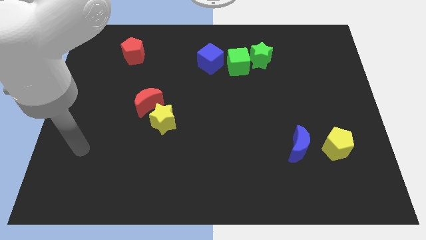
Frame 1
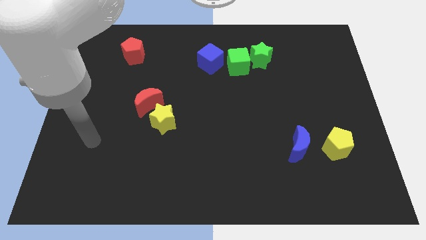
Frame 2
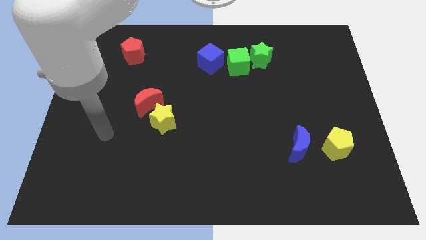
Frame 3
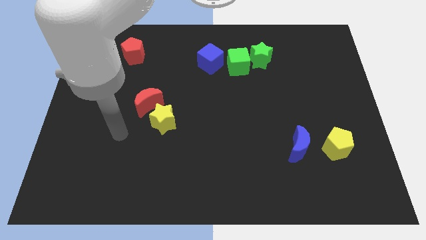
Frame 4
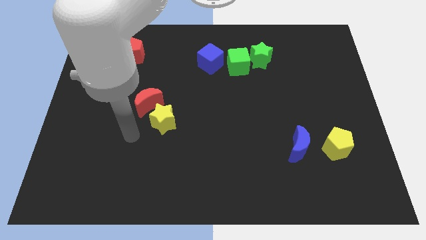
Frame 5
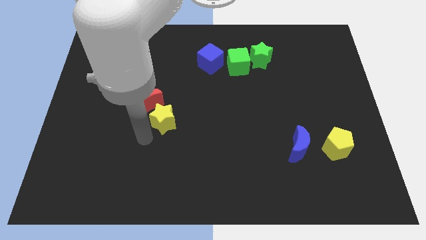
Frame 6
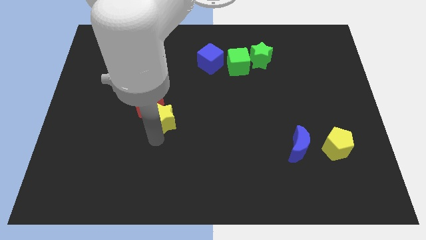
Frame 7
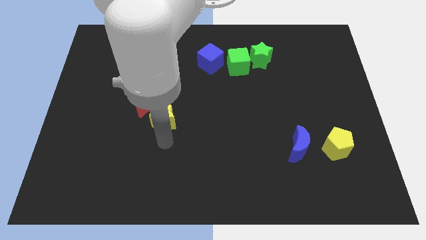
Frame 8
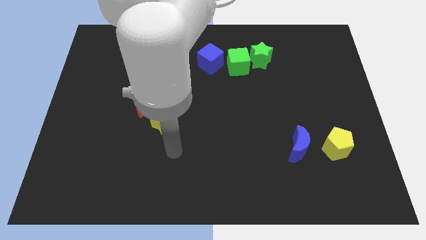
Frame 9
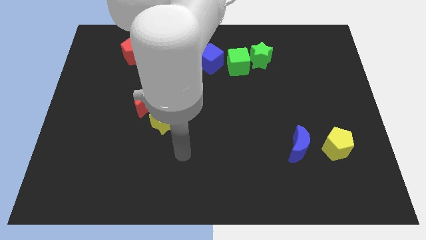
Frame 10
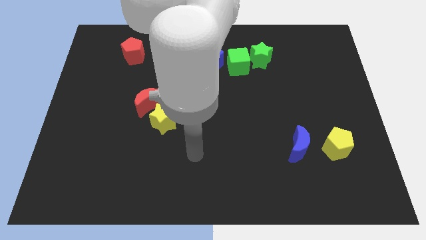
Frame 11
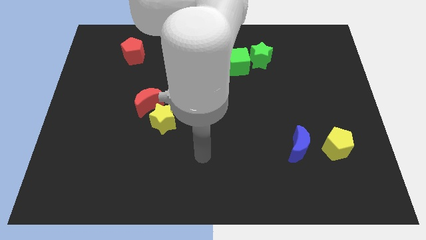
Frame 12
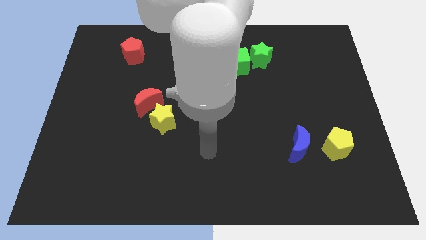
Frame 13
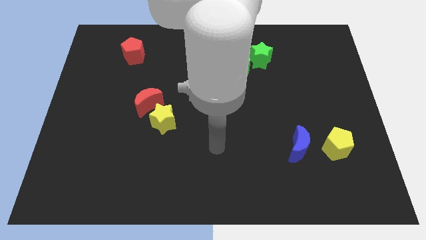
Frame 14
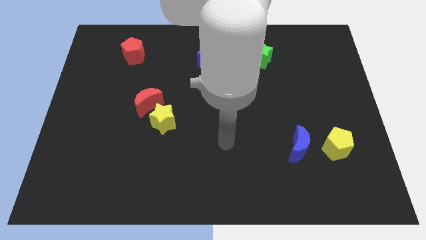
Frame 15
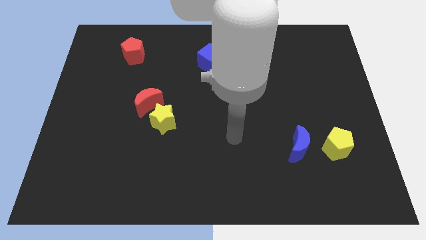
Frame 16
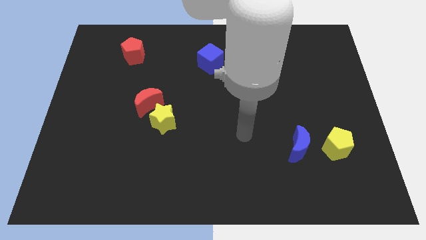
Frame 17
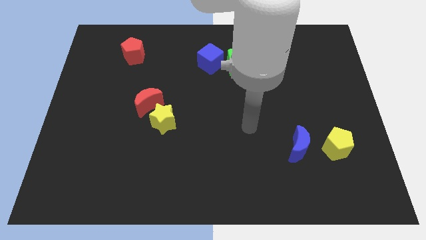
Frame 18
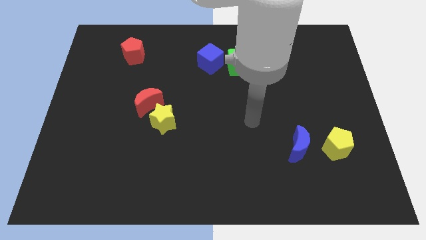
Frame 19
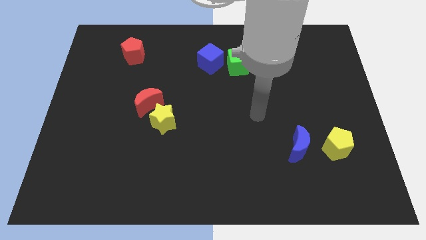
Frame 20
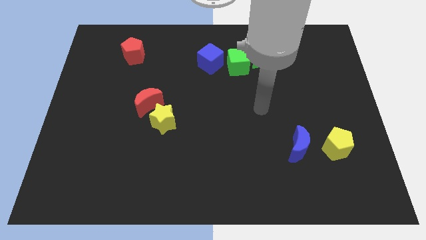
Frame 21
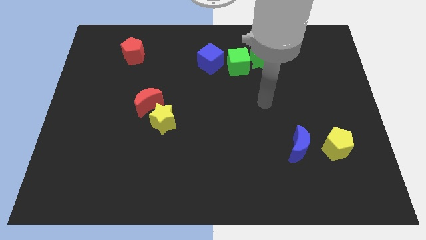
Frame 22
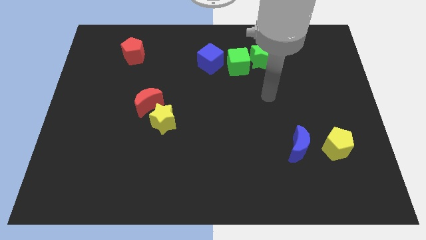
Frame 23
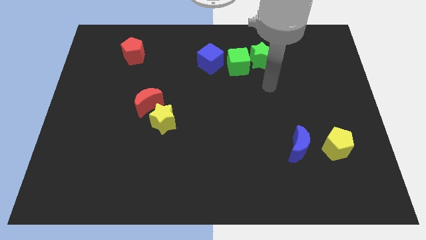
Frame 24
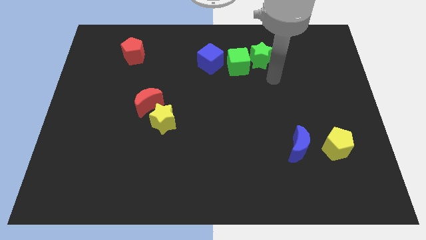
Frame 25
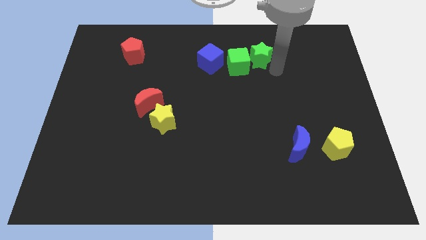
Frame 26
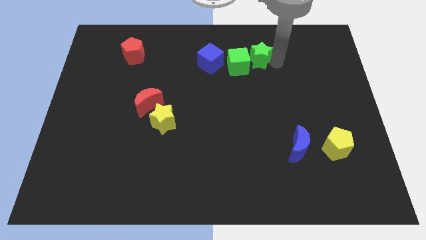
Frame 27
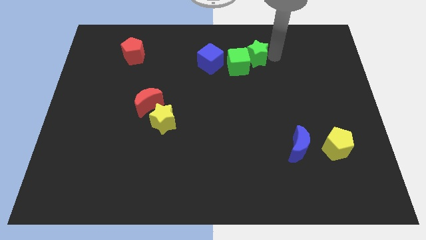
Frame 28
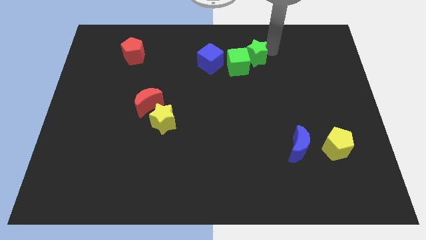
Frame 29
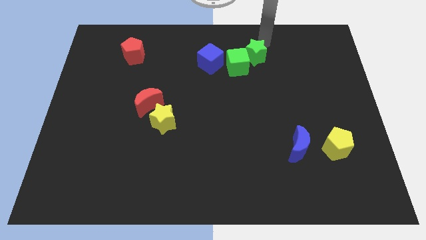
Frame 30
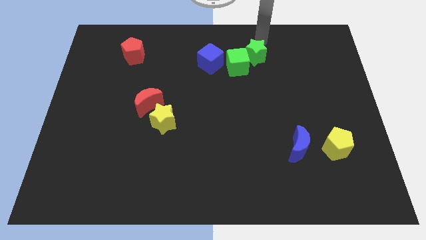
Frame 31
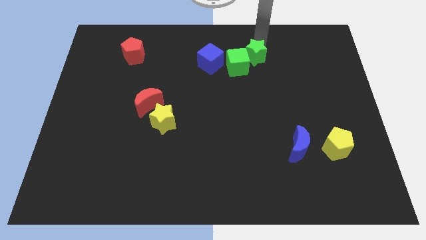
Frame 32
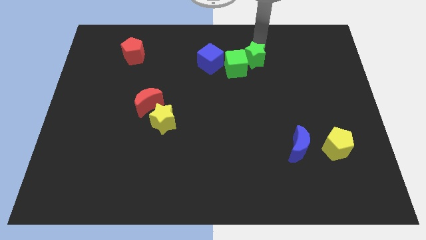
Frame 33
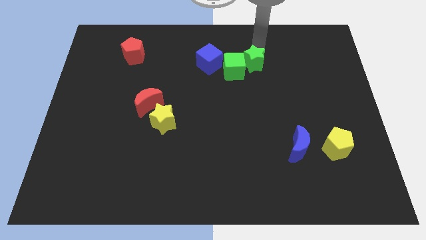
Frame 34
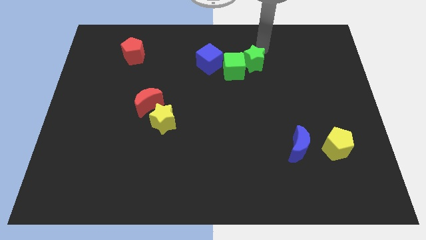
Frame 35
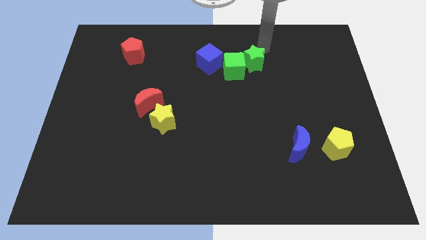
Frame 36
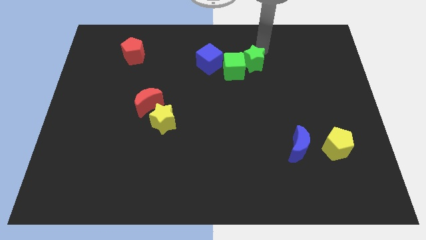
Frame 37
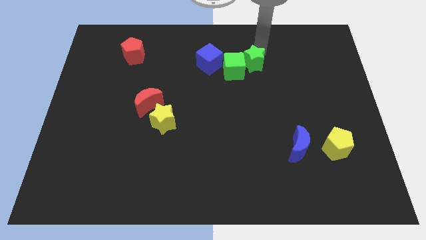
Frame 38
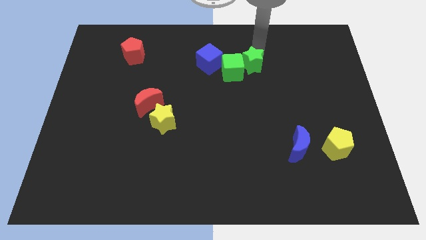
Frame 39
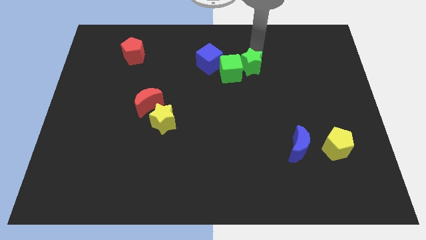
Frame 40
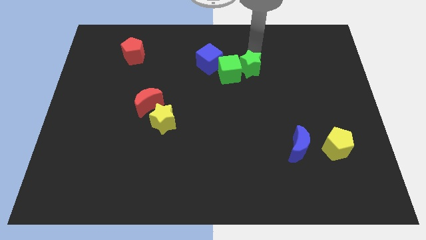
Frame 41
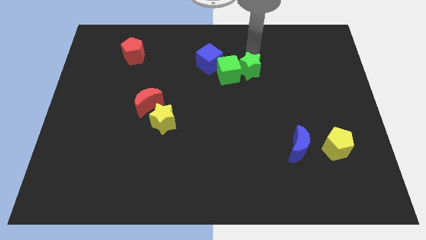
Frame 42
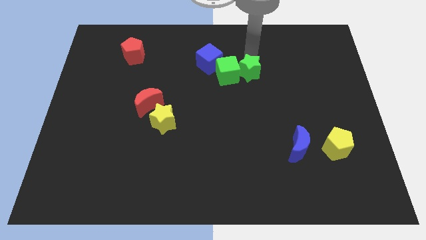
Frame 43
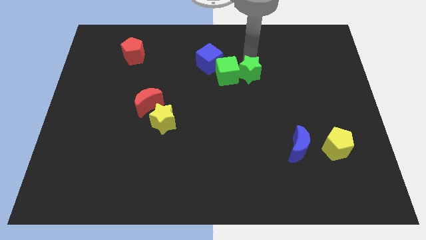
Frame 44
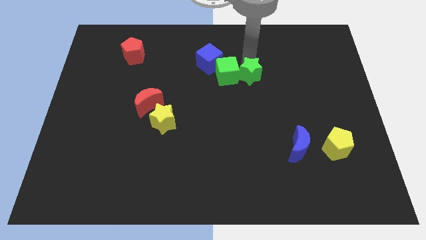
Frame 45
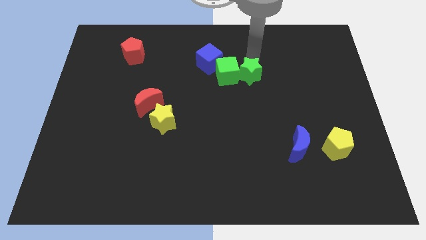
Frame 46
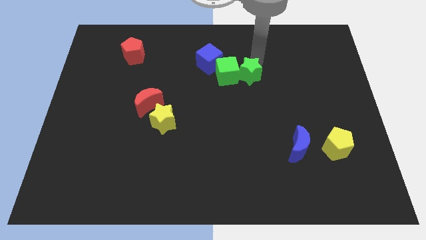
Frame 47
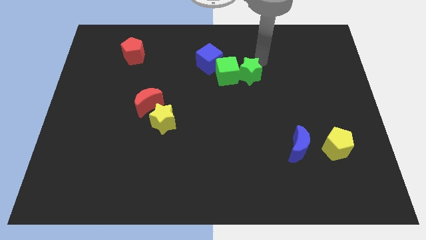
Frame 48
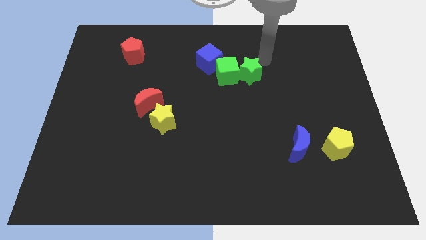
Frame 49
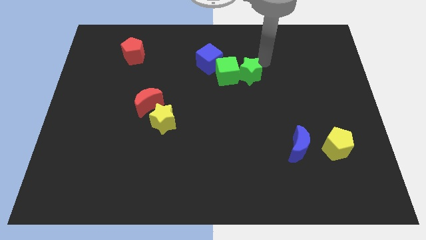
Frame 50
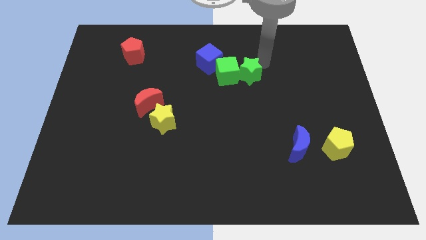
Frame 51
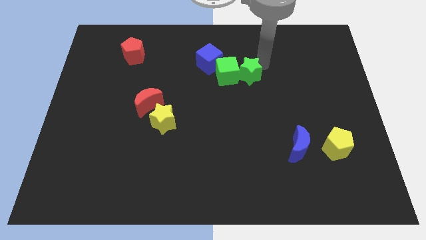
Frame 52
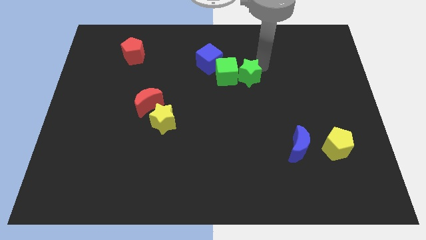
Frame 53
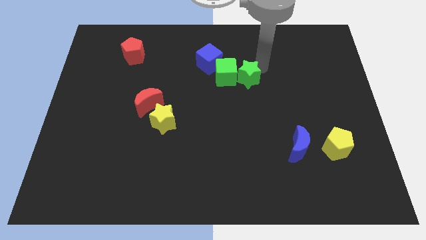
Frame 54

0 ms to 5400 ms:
push the green star slightly down and then to the left

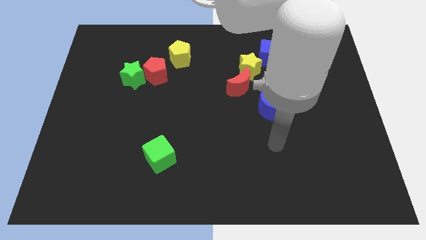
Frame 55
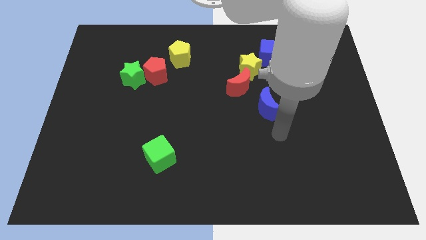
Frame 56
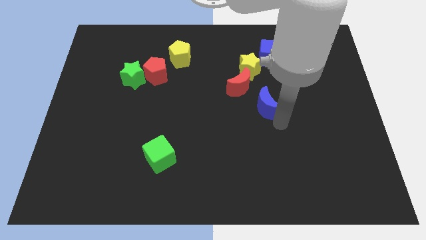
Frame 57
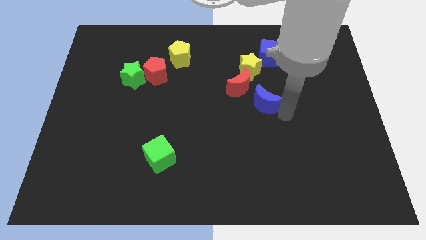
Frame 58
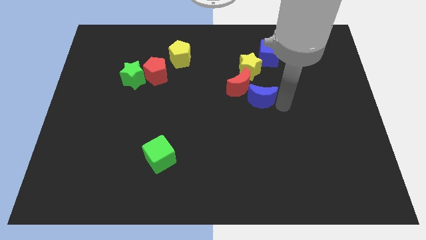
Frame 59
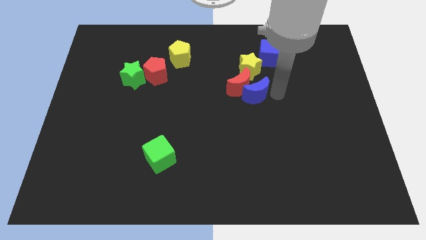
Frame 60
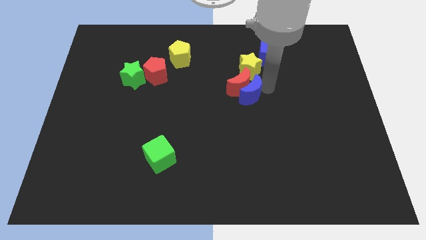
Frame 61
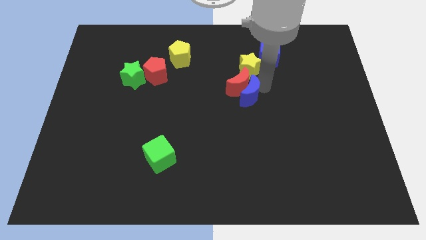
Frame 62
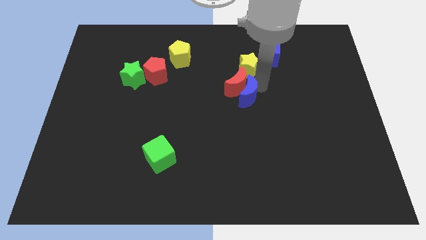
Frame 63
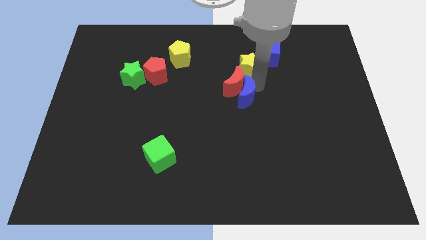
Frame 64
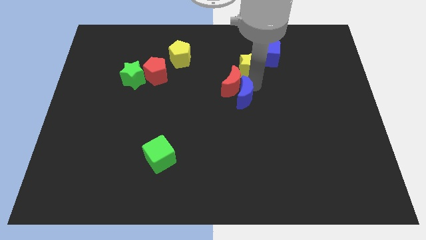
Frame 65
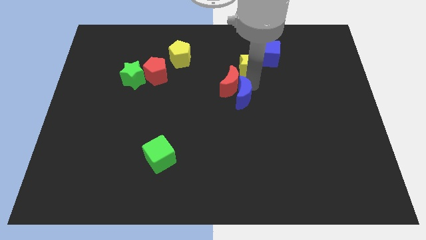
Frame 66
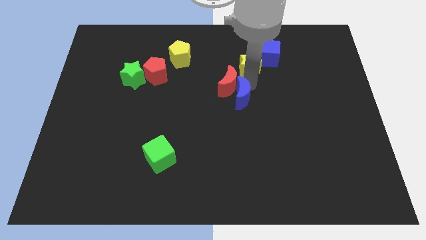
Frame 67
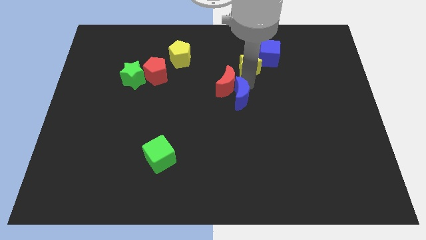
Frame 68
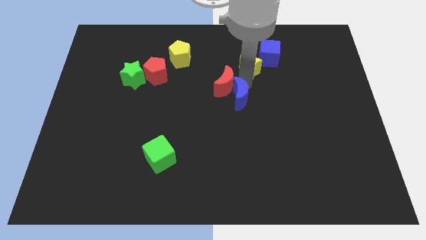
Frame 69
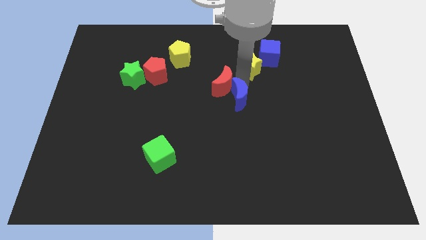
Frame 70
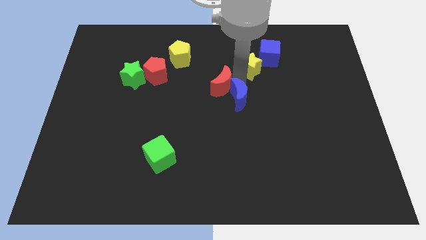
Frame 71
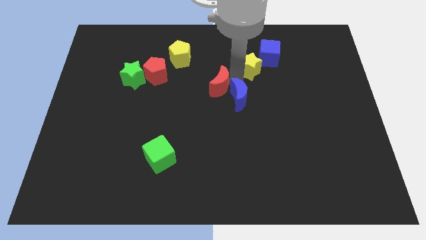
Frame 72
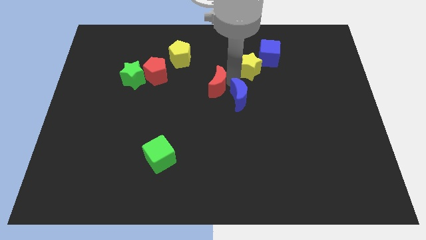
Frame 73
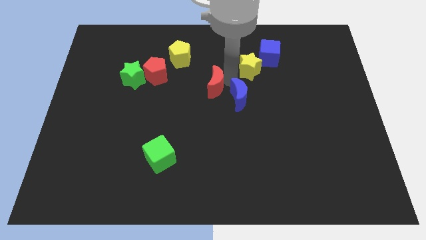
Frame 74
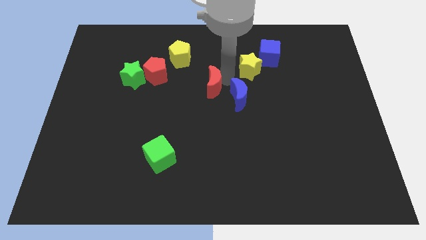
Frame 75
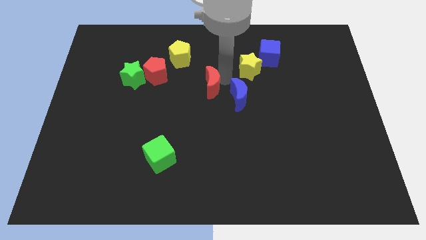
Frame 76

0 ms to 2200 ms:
move the red moon a little to the left

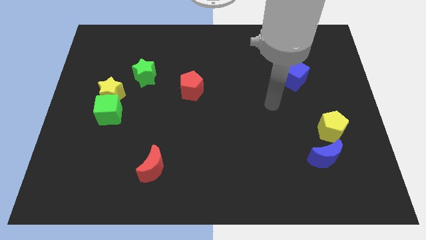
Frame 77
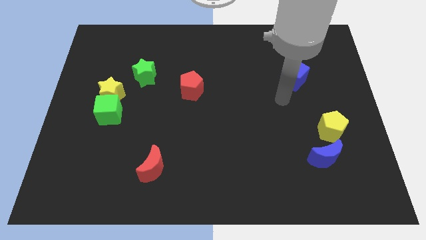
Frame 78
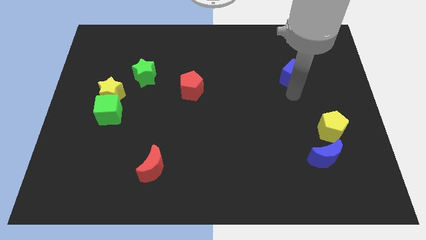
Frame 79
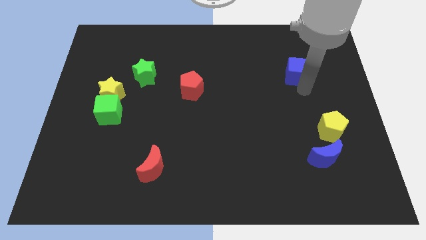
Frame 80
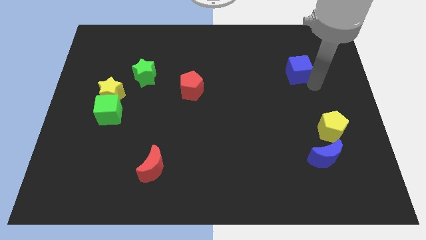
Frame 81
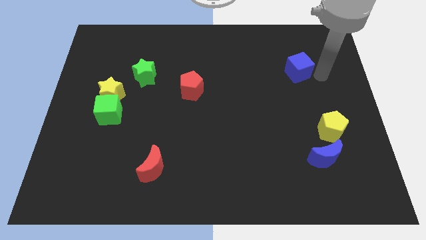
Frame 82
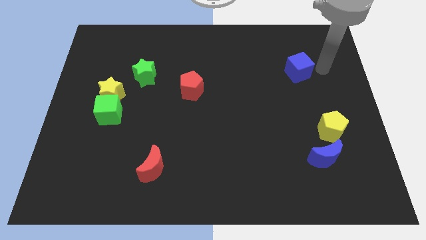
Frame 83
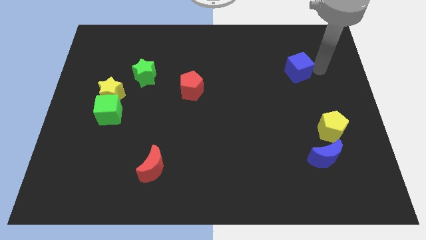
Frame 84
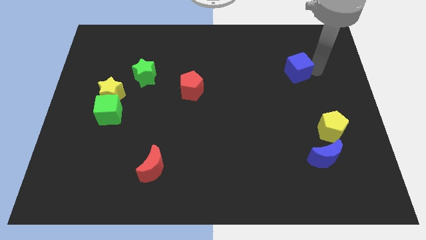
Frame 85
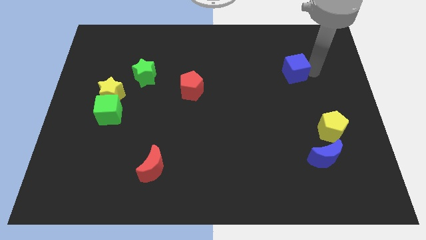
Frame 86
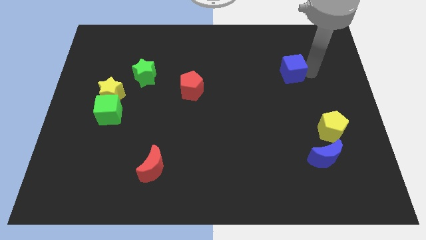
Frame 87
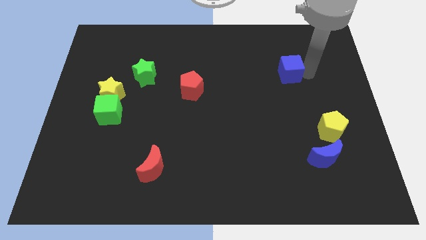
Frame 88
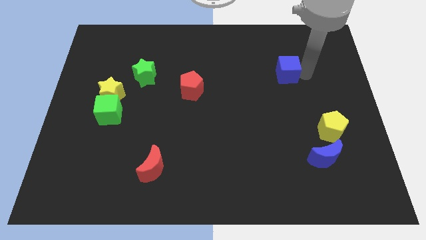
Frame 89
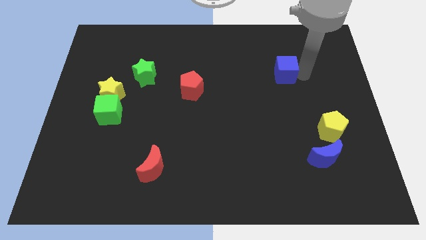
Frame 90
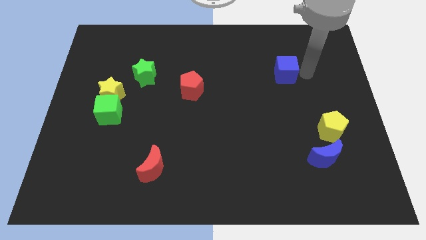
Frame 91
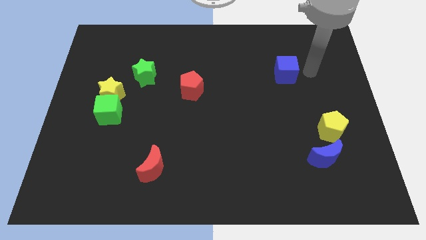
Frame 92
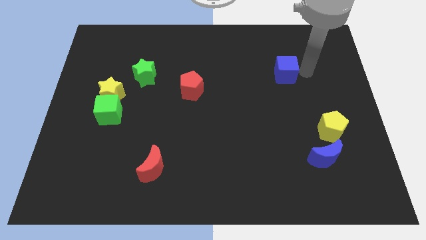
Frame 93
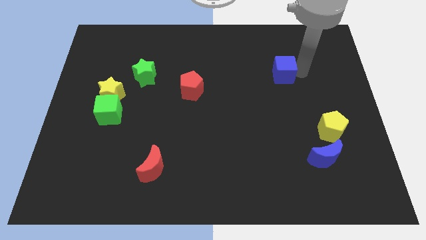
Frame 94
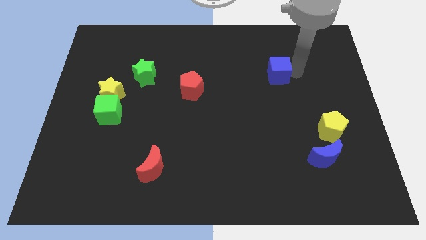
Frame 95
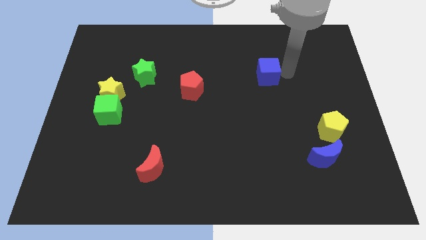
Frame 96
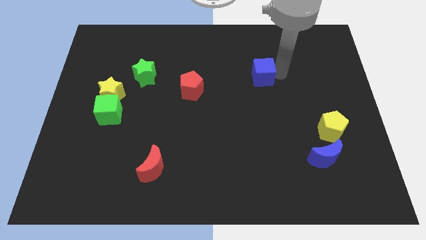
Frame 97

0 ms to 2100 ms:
move the blue cube to the left somewhat
